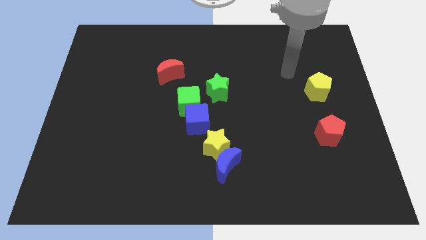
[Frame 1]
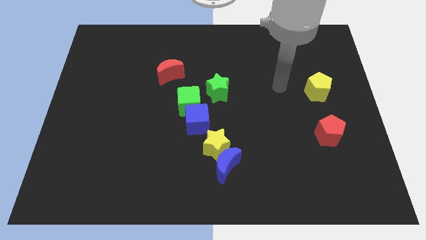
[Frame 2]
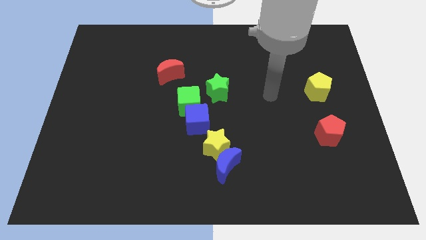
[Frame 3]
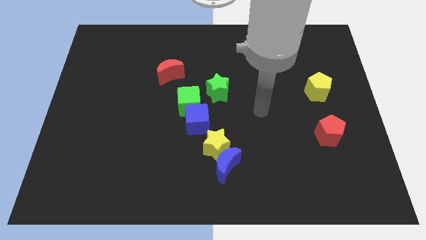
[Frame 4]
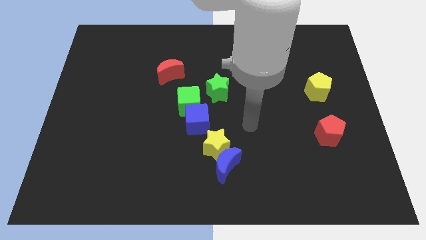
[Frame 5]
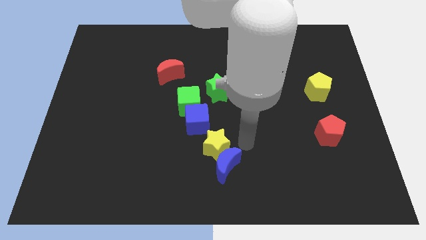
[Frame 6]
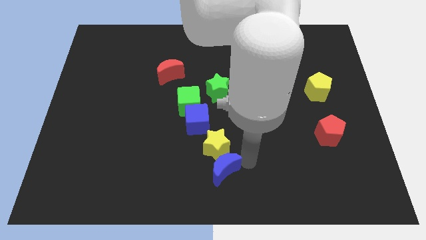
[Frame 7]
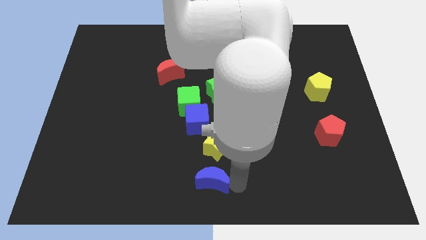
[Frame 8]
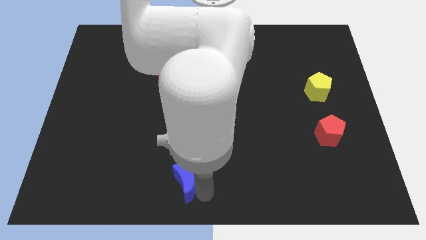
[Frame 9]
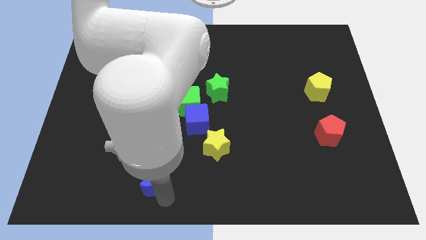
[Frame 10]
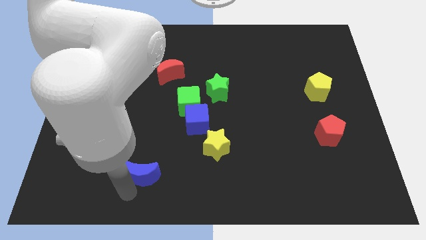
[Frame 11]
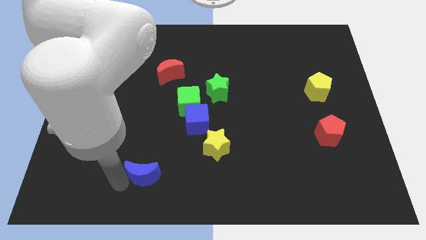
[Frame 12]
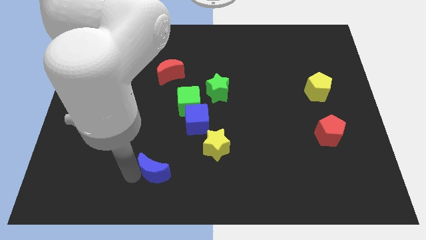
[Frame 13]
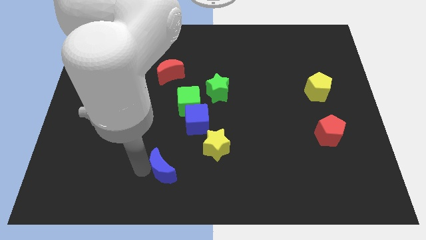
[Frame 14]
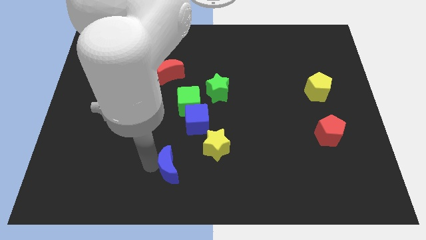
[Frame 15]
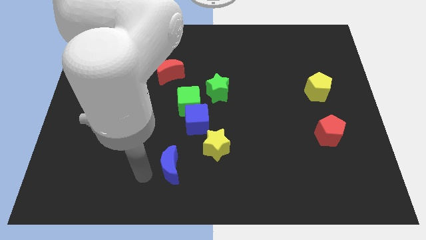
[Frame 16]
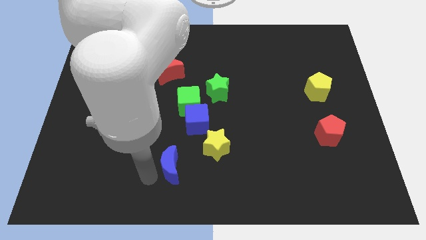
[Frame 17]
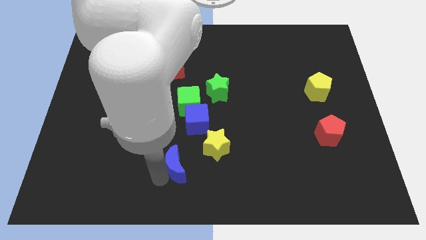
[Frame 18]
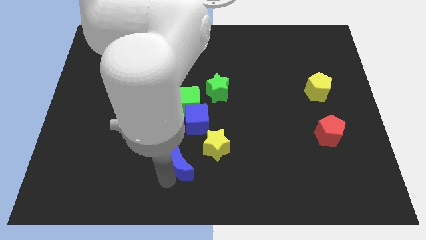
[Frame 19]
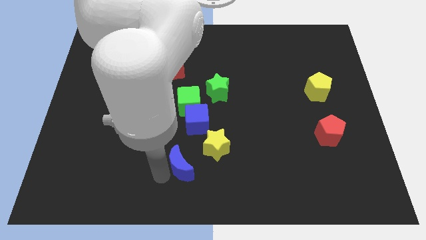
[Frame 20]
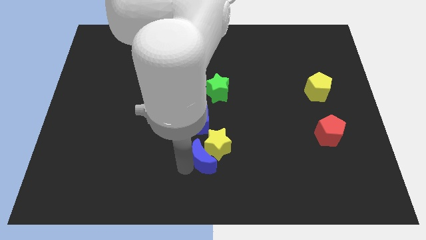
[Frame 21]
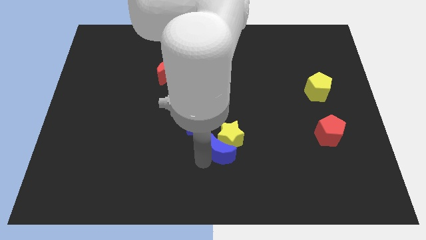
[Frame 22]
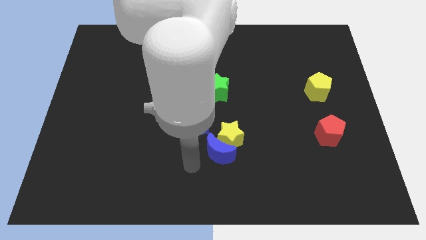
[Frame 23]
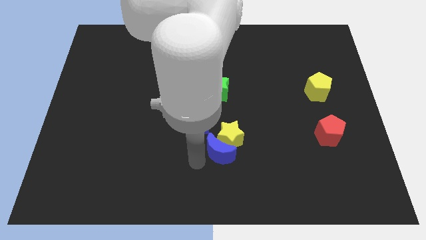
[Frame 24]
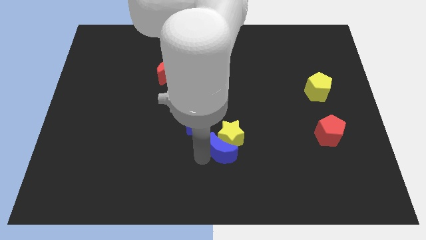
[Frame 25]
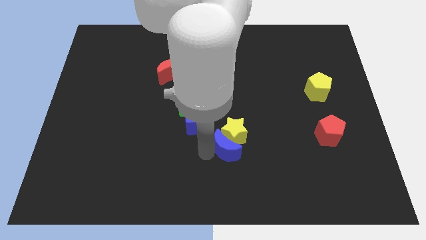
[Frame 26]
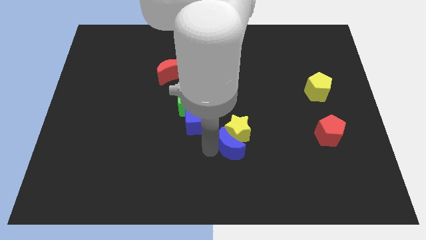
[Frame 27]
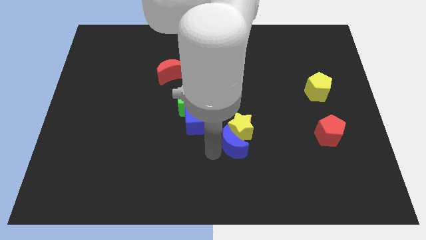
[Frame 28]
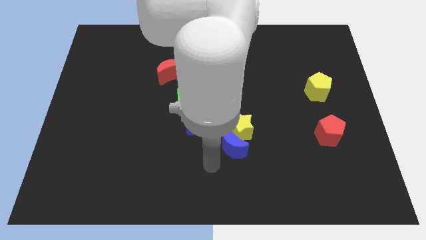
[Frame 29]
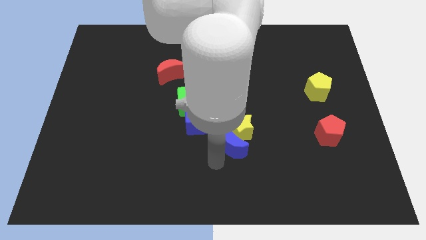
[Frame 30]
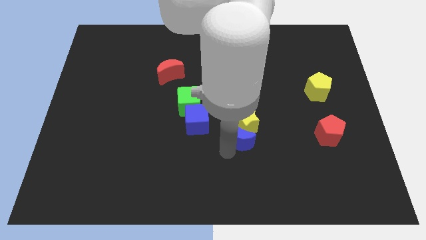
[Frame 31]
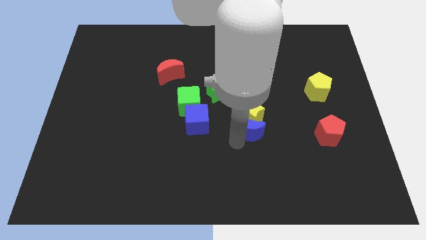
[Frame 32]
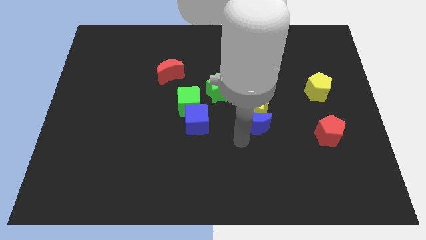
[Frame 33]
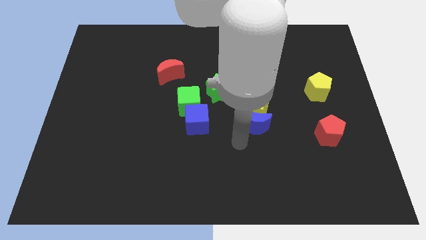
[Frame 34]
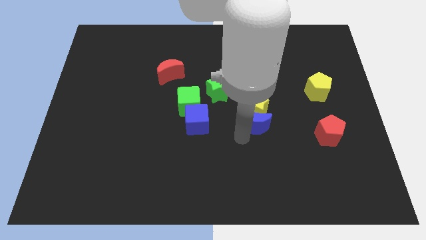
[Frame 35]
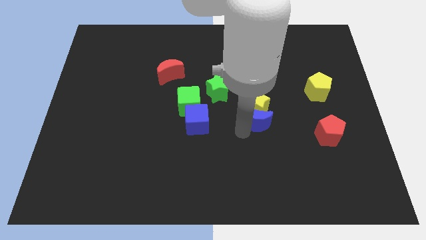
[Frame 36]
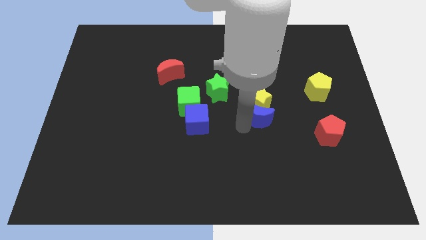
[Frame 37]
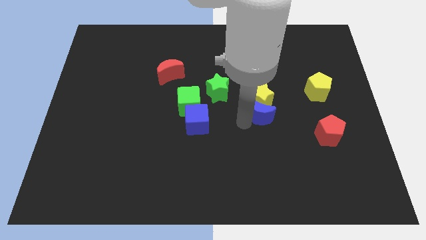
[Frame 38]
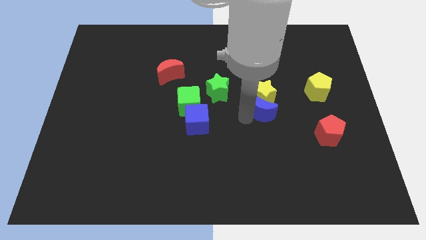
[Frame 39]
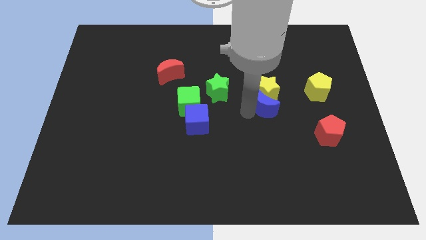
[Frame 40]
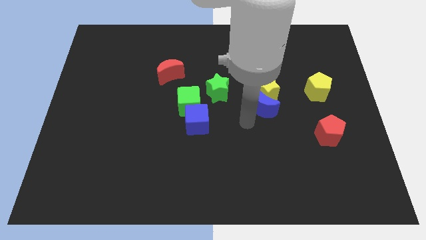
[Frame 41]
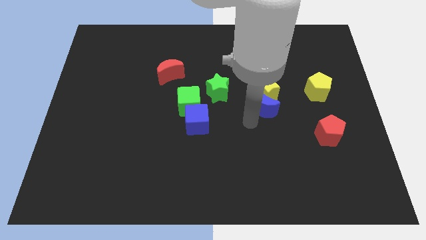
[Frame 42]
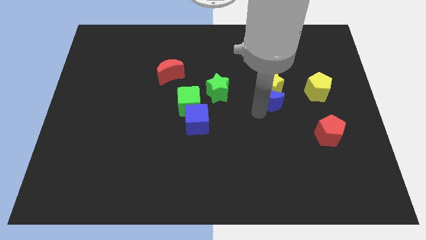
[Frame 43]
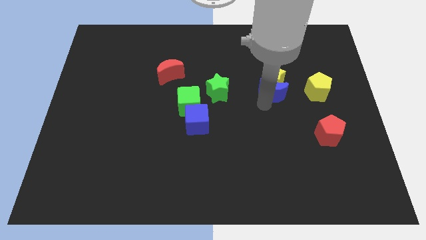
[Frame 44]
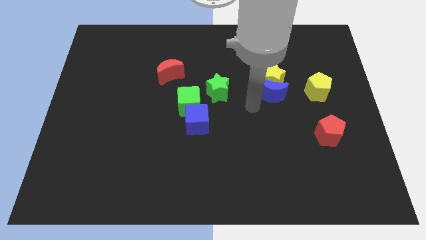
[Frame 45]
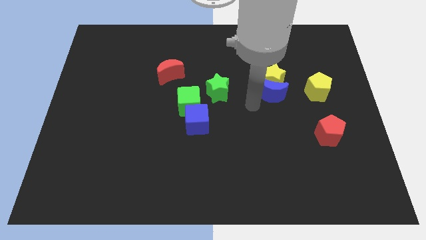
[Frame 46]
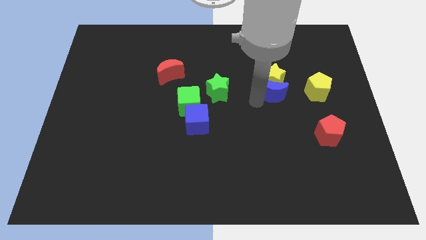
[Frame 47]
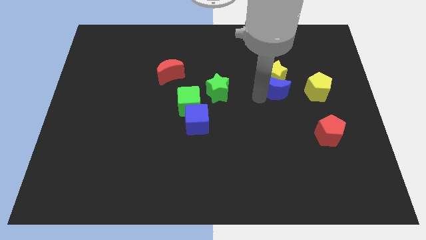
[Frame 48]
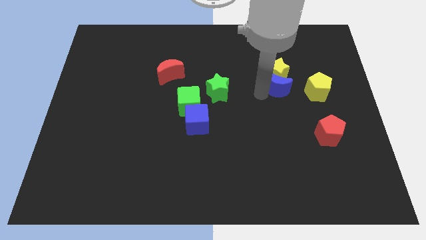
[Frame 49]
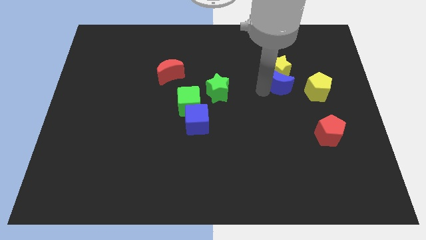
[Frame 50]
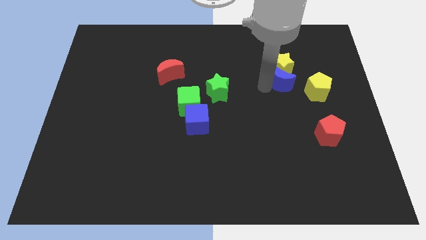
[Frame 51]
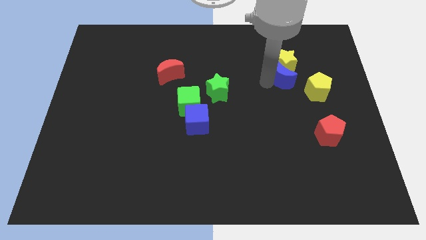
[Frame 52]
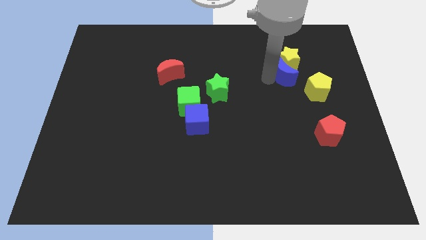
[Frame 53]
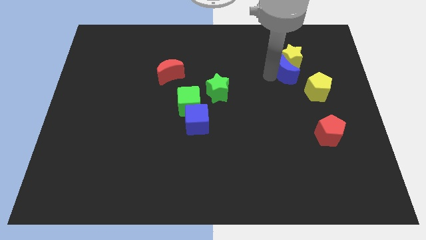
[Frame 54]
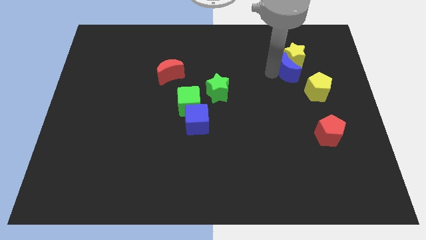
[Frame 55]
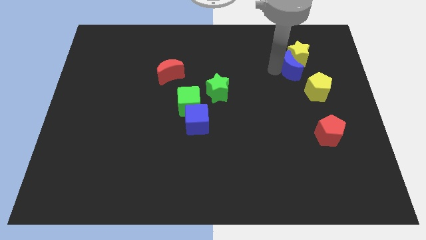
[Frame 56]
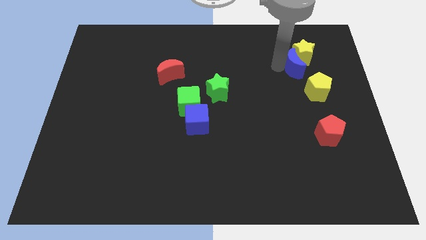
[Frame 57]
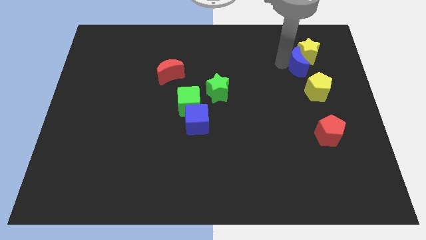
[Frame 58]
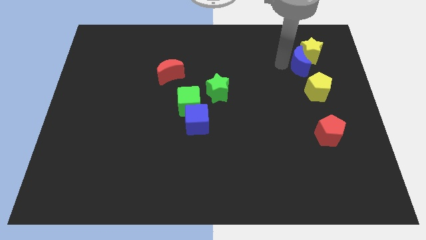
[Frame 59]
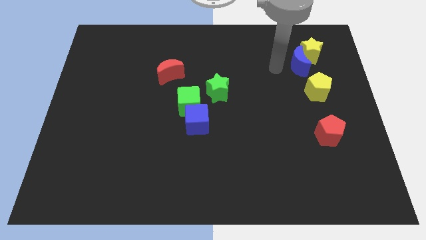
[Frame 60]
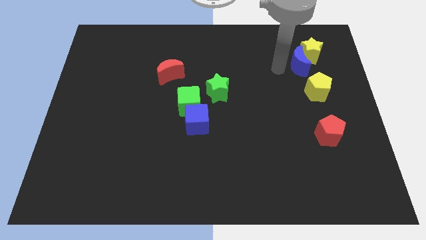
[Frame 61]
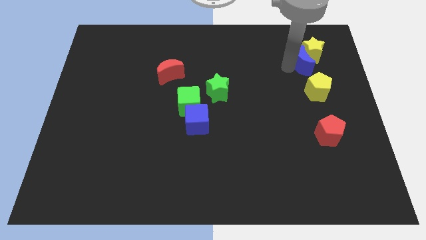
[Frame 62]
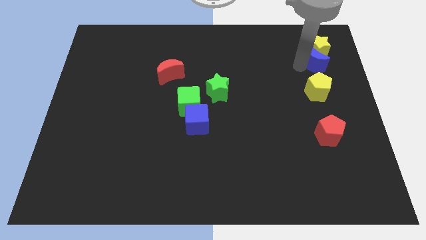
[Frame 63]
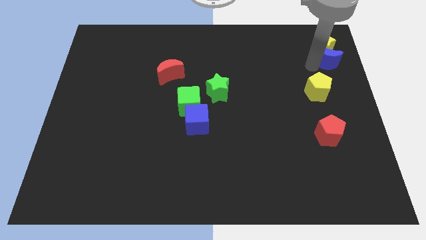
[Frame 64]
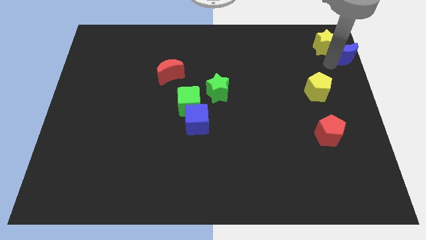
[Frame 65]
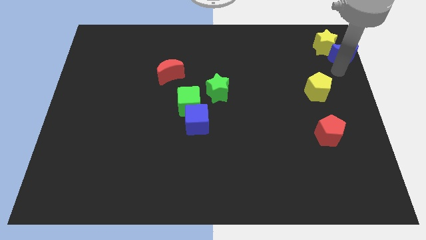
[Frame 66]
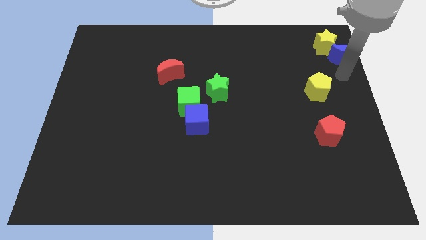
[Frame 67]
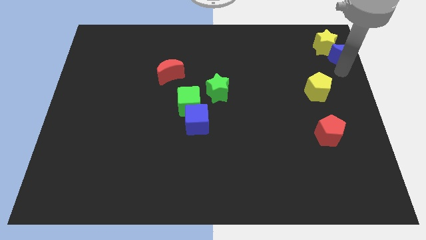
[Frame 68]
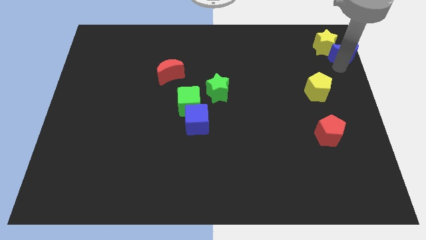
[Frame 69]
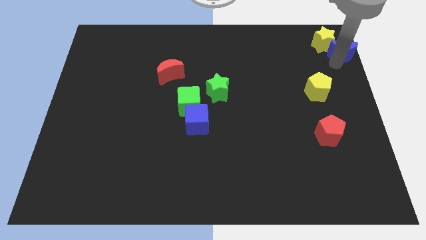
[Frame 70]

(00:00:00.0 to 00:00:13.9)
move the blue moon to the top right of the board

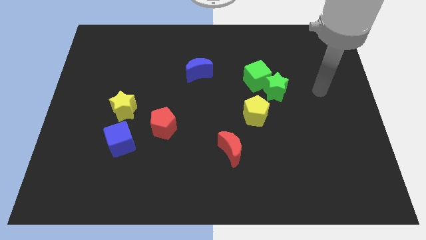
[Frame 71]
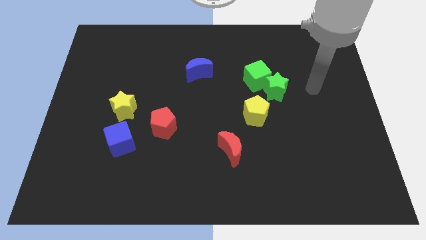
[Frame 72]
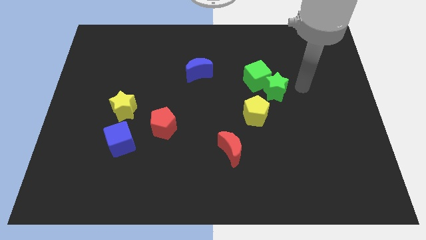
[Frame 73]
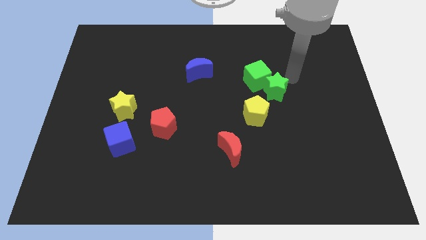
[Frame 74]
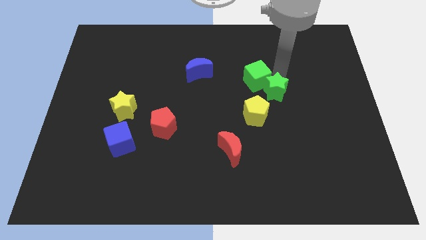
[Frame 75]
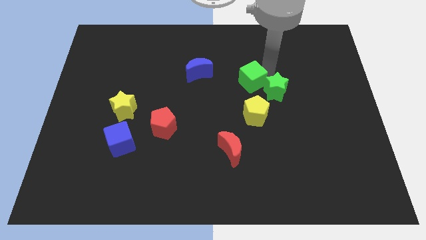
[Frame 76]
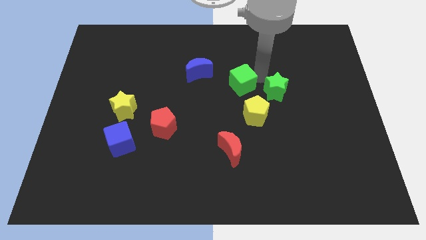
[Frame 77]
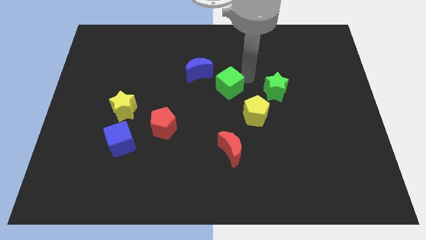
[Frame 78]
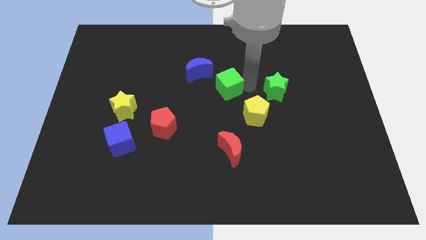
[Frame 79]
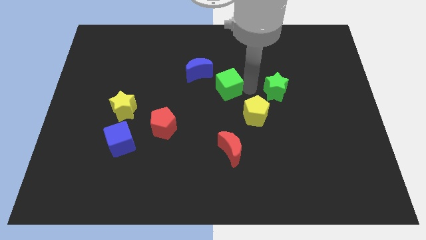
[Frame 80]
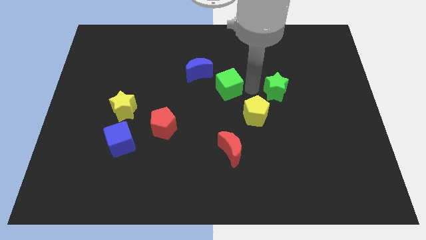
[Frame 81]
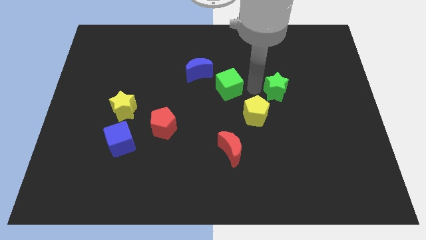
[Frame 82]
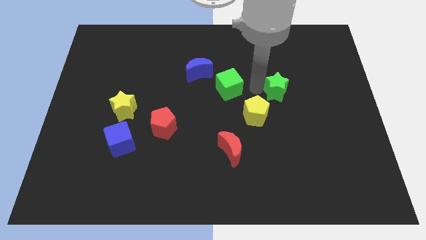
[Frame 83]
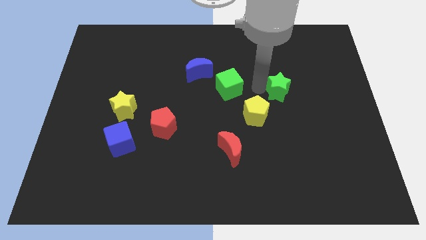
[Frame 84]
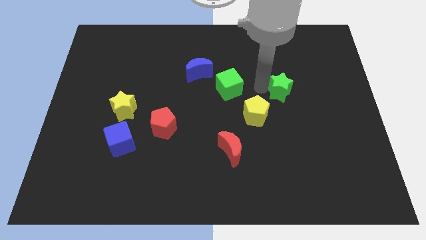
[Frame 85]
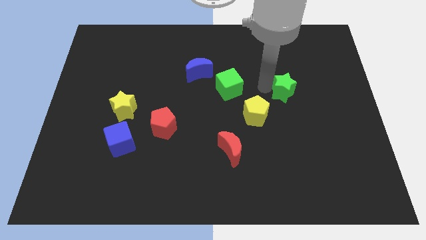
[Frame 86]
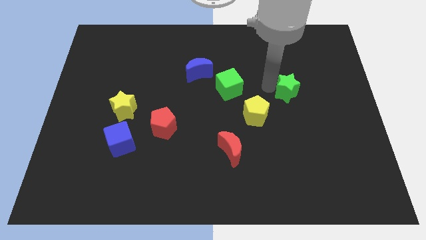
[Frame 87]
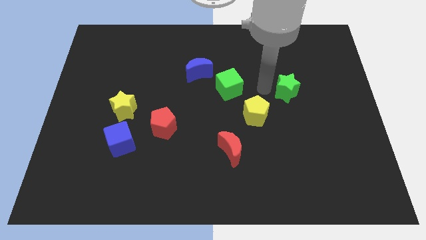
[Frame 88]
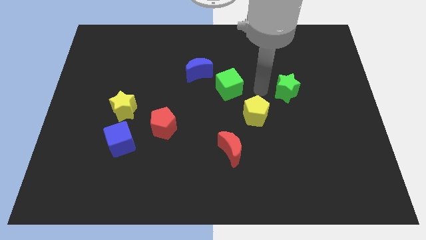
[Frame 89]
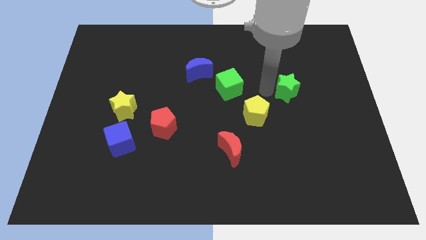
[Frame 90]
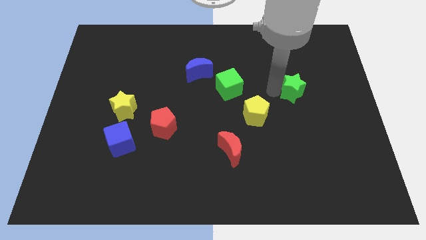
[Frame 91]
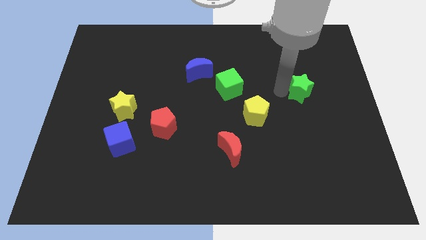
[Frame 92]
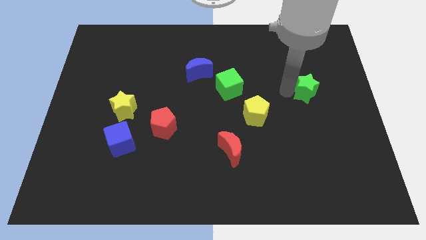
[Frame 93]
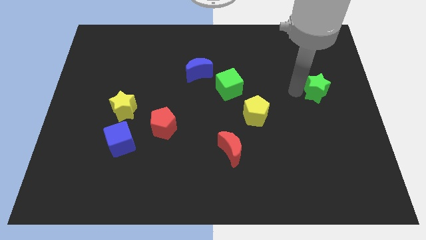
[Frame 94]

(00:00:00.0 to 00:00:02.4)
push the green star to the right side
